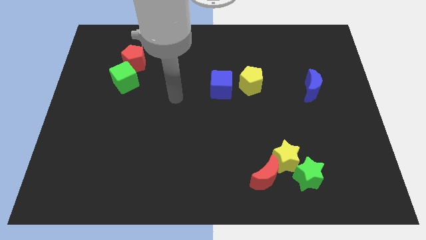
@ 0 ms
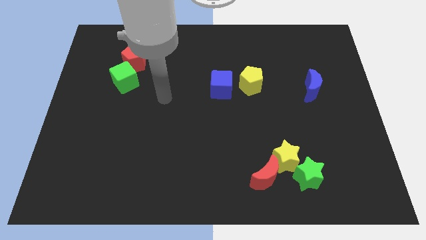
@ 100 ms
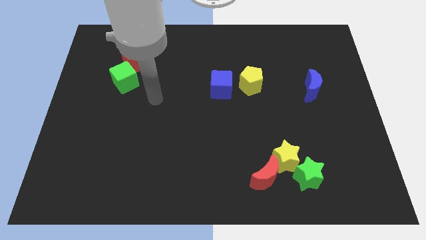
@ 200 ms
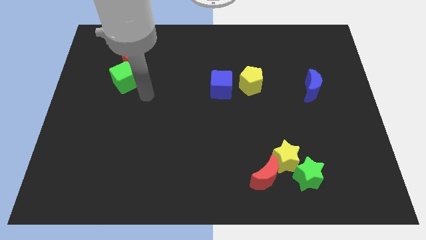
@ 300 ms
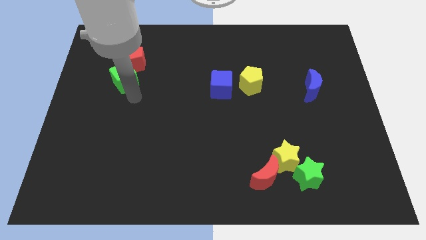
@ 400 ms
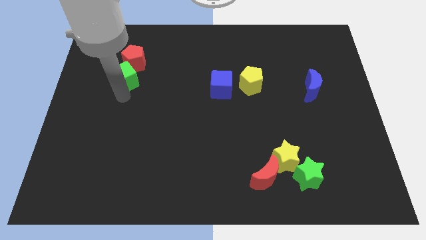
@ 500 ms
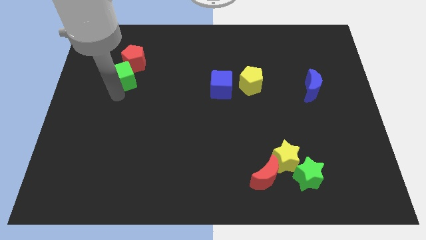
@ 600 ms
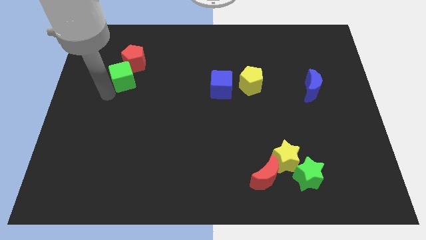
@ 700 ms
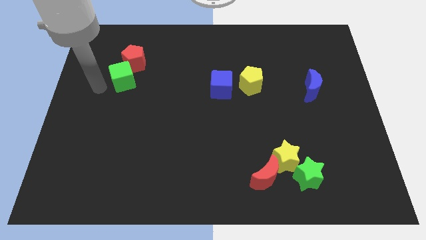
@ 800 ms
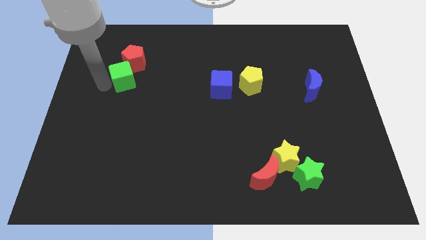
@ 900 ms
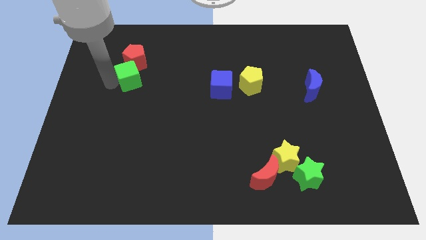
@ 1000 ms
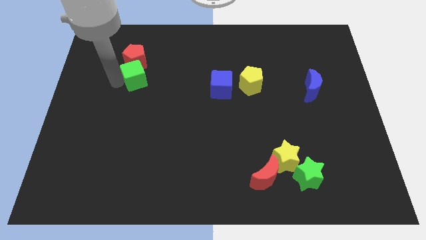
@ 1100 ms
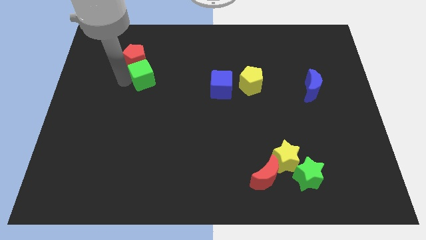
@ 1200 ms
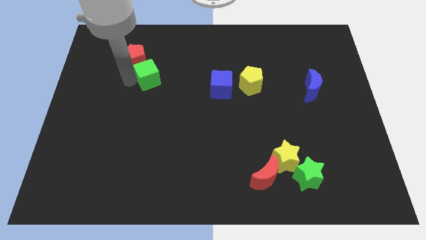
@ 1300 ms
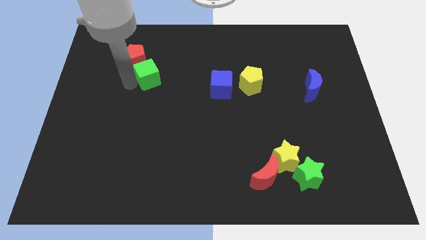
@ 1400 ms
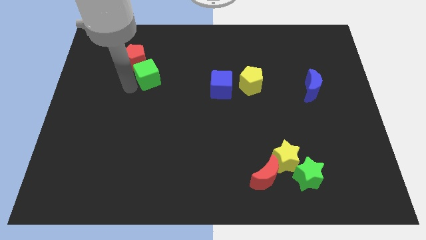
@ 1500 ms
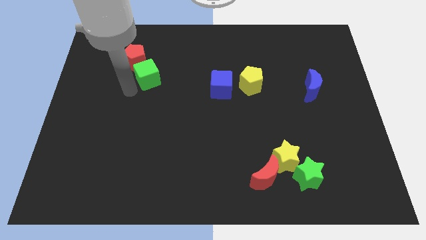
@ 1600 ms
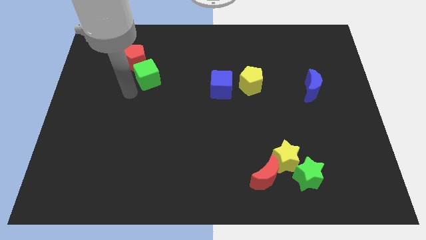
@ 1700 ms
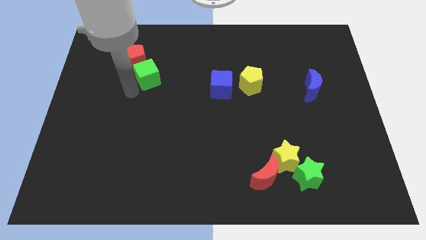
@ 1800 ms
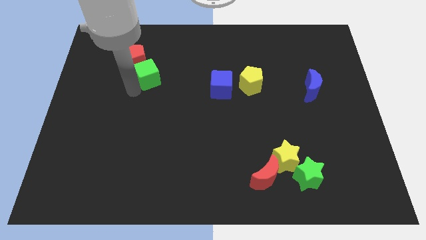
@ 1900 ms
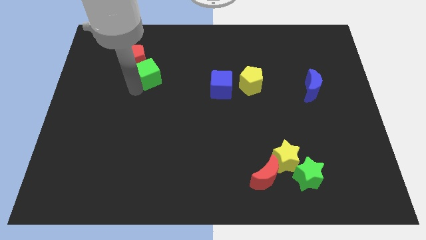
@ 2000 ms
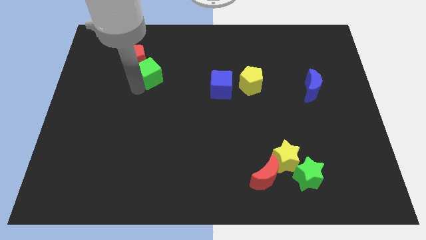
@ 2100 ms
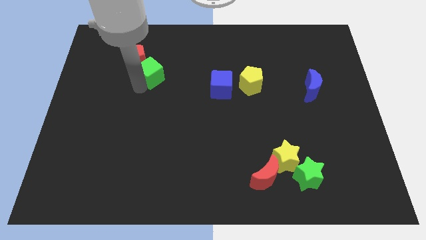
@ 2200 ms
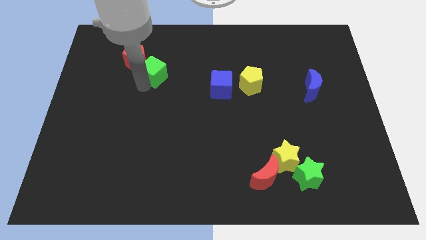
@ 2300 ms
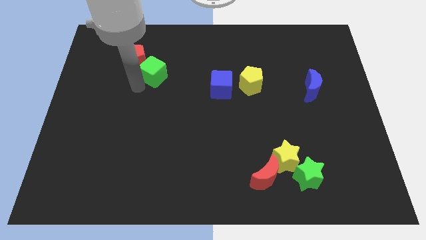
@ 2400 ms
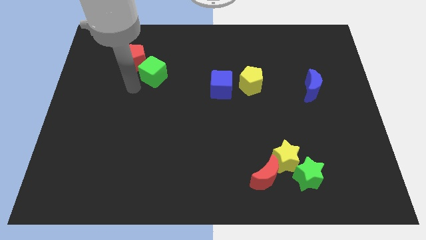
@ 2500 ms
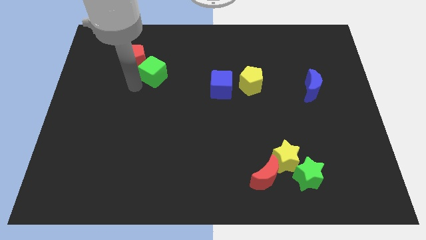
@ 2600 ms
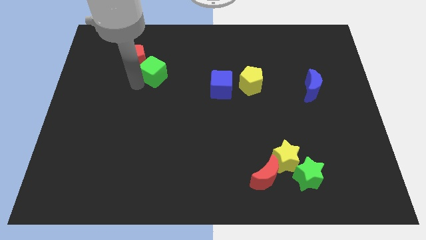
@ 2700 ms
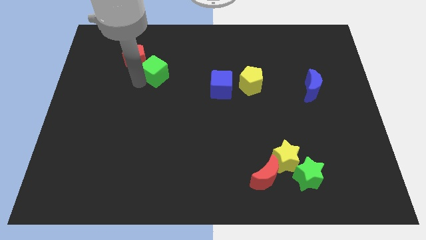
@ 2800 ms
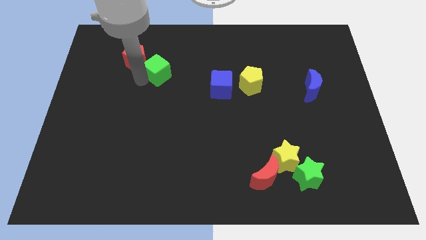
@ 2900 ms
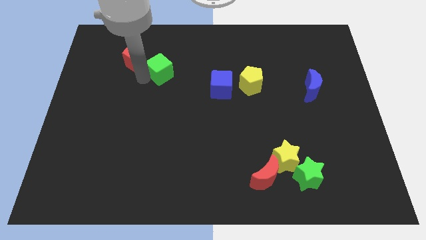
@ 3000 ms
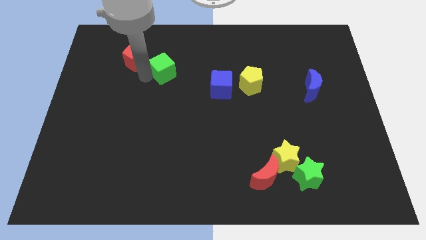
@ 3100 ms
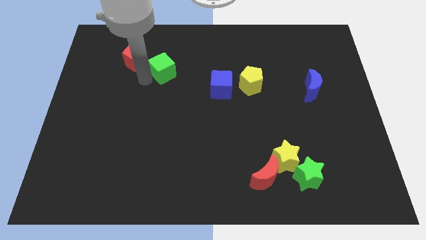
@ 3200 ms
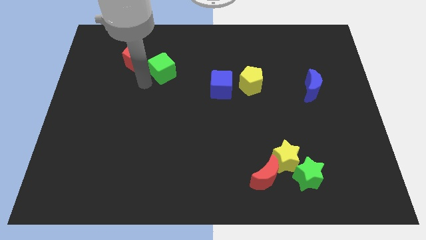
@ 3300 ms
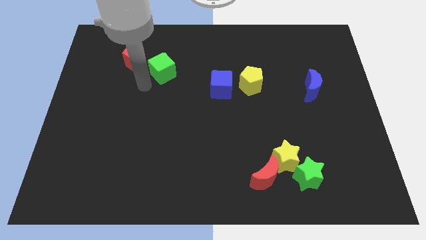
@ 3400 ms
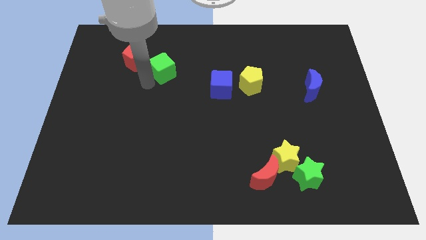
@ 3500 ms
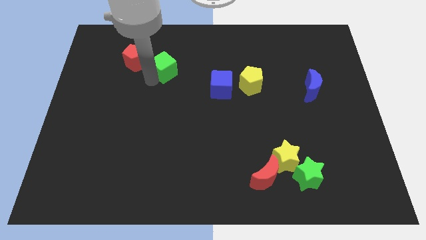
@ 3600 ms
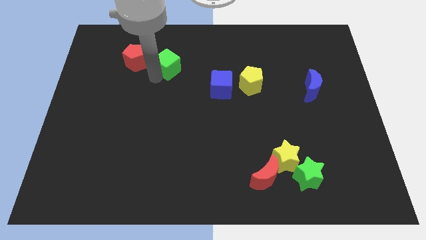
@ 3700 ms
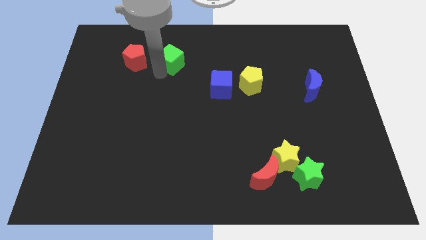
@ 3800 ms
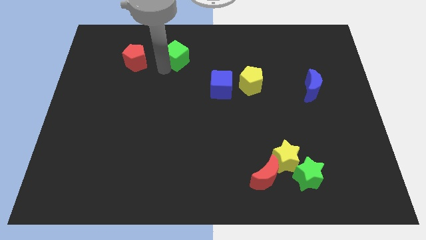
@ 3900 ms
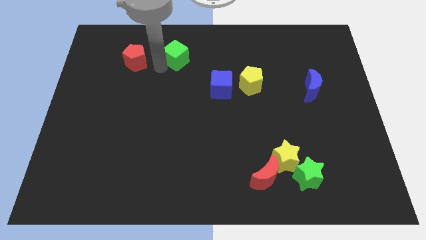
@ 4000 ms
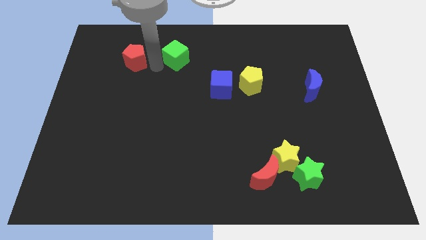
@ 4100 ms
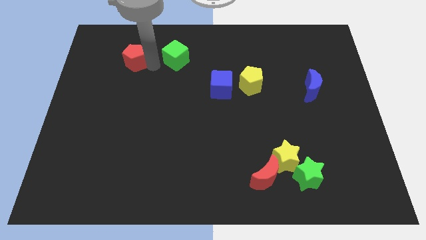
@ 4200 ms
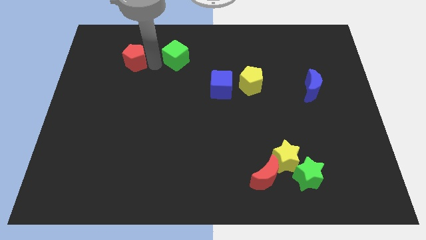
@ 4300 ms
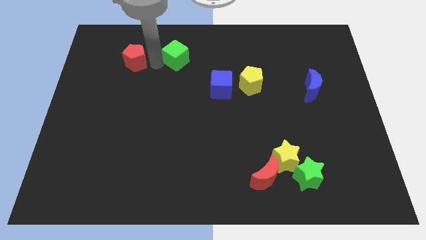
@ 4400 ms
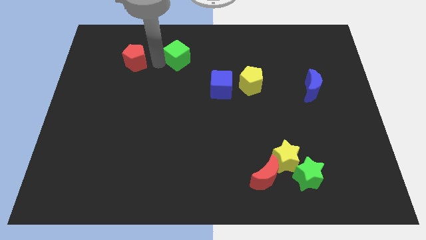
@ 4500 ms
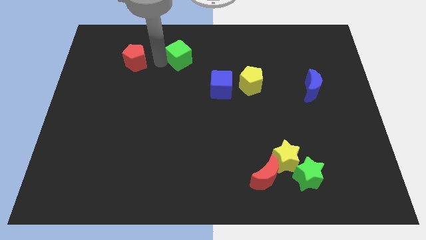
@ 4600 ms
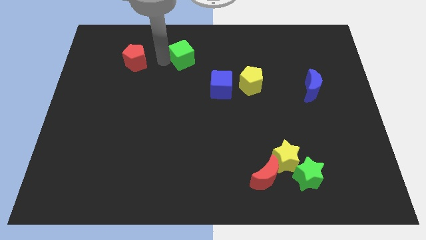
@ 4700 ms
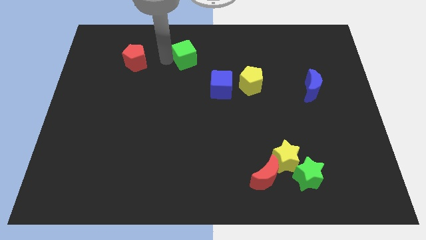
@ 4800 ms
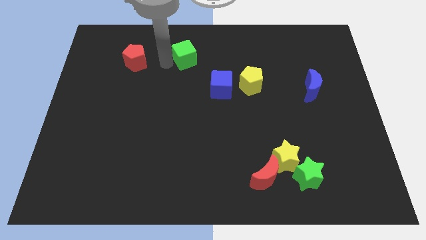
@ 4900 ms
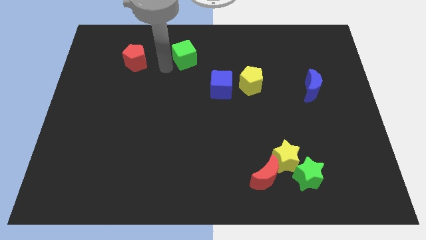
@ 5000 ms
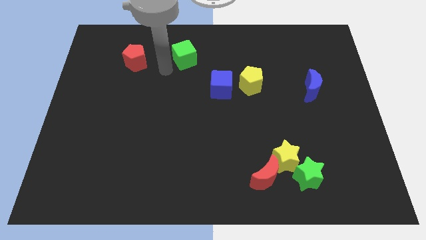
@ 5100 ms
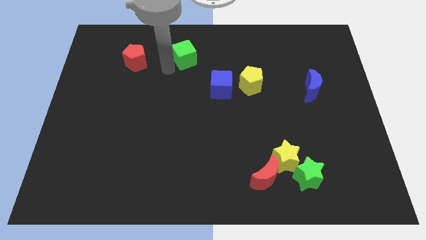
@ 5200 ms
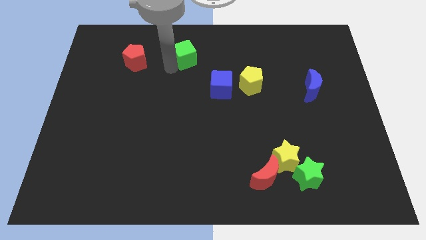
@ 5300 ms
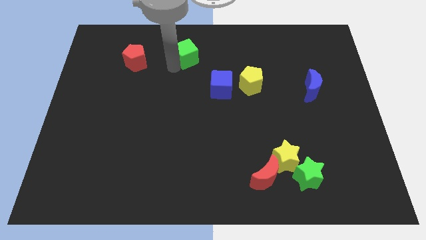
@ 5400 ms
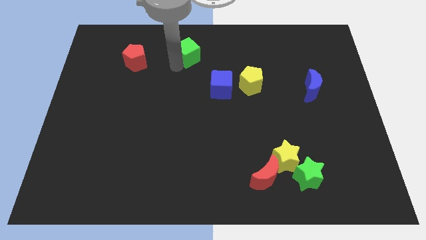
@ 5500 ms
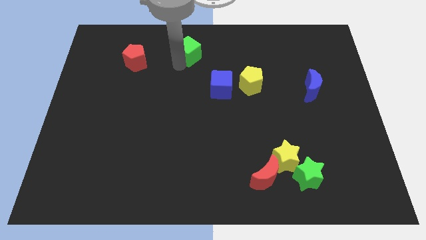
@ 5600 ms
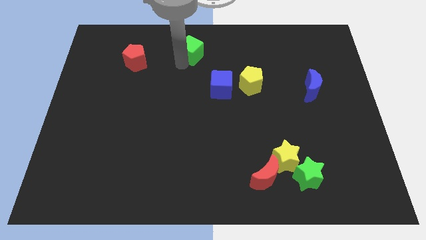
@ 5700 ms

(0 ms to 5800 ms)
push the green cube to the top
